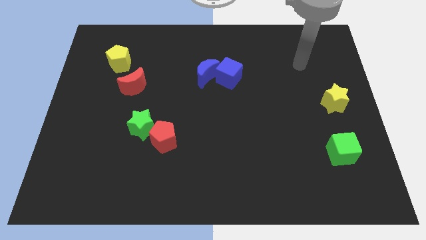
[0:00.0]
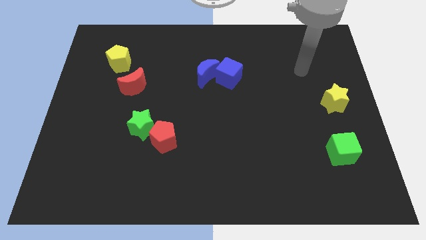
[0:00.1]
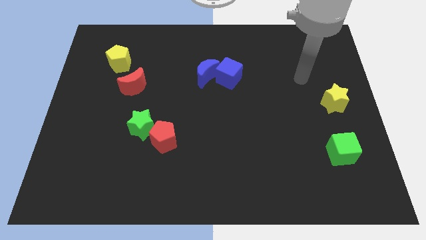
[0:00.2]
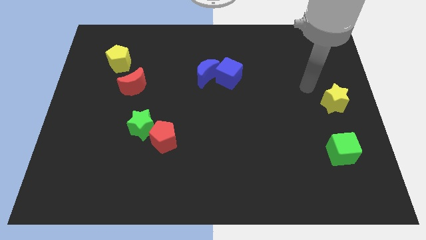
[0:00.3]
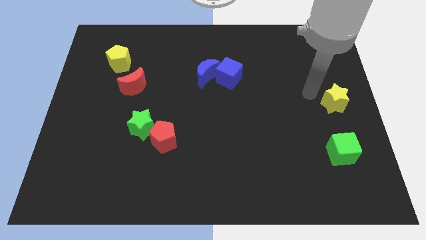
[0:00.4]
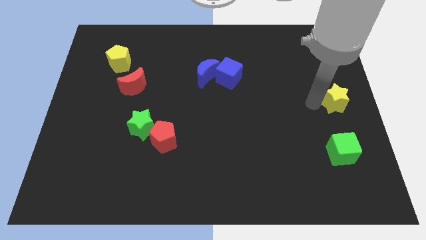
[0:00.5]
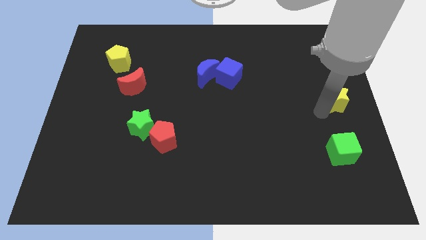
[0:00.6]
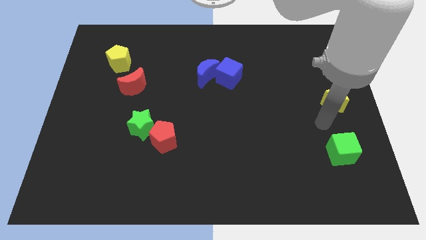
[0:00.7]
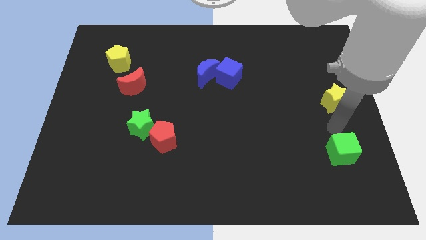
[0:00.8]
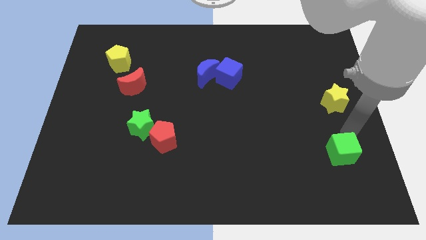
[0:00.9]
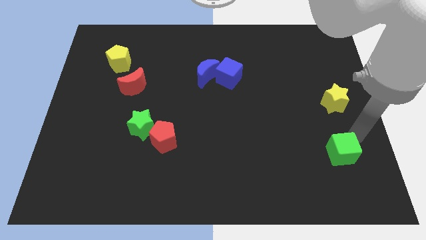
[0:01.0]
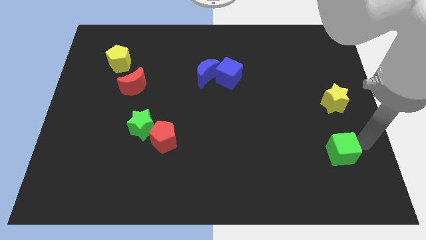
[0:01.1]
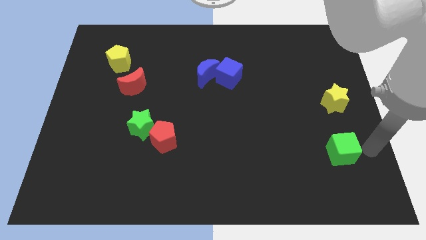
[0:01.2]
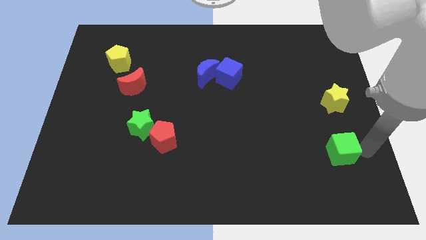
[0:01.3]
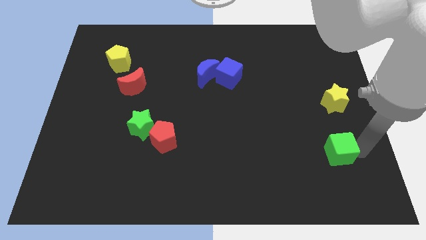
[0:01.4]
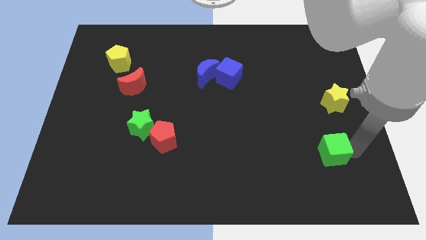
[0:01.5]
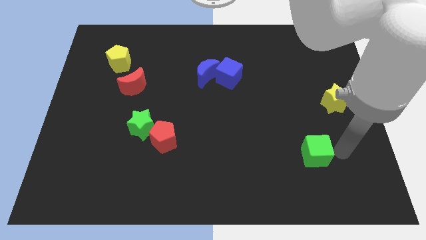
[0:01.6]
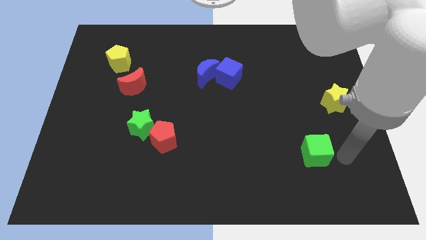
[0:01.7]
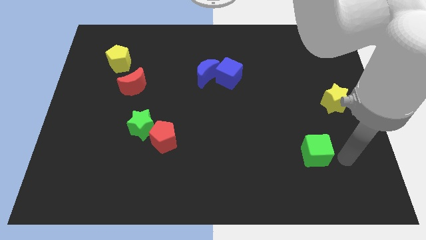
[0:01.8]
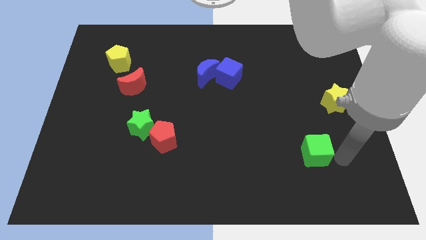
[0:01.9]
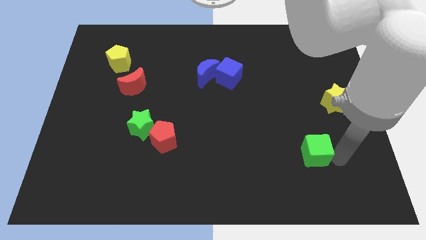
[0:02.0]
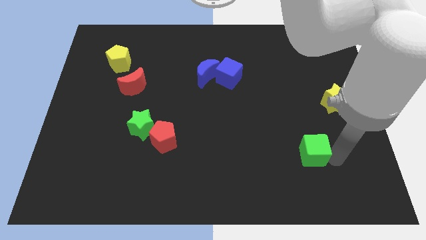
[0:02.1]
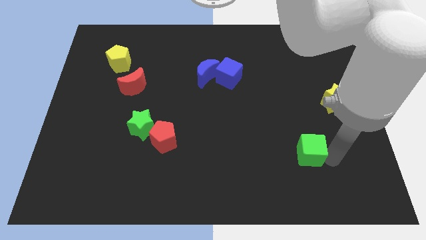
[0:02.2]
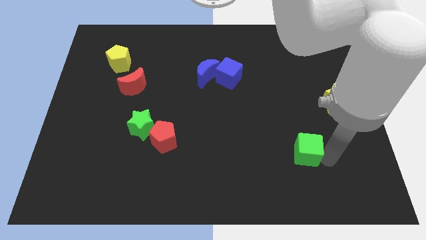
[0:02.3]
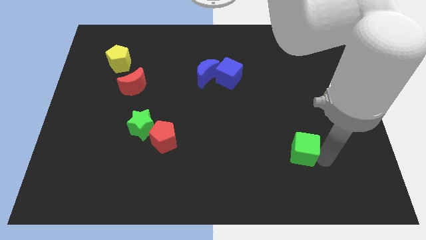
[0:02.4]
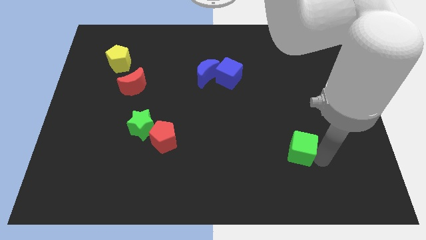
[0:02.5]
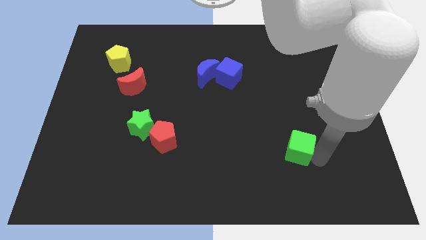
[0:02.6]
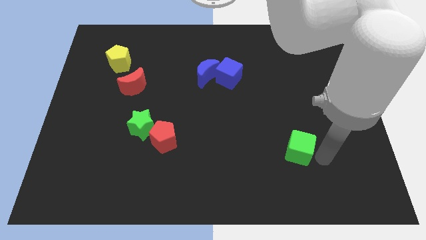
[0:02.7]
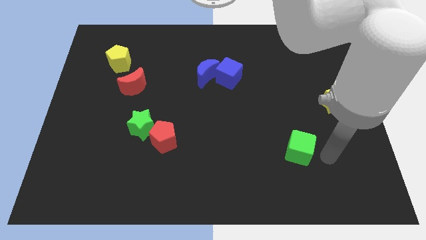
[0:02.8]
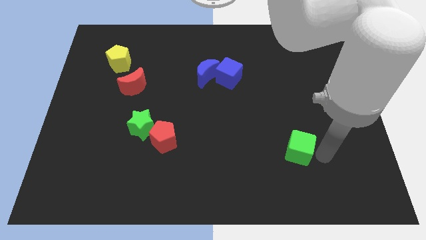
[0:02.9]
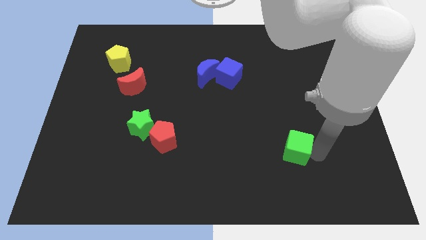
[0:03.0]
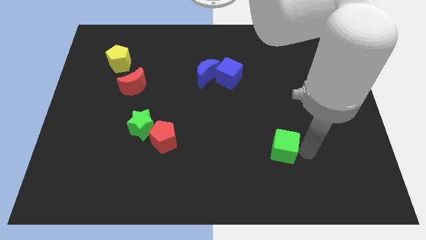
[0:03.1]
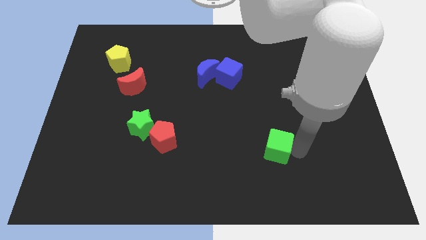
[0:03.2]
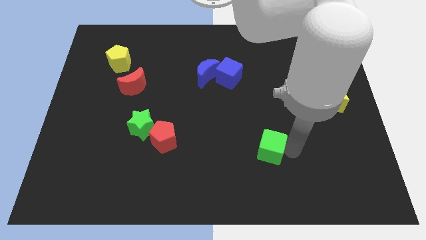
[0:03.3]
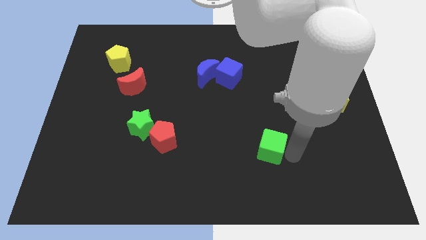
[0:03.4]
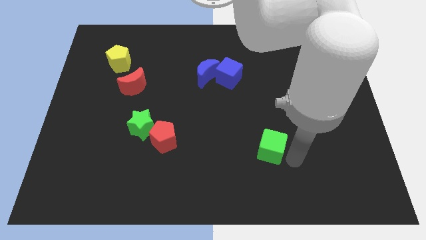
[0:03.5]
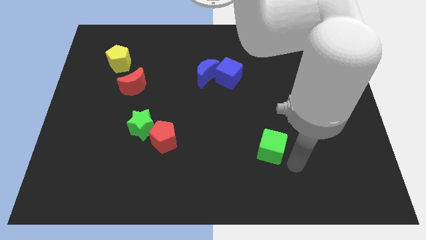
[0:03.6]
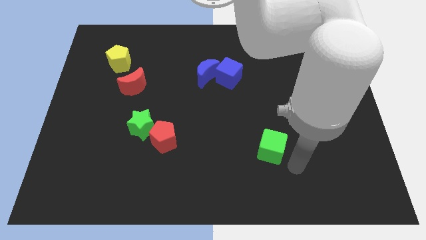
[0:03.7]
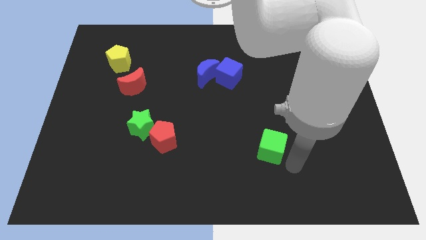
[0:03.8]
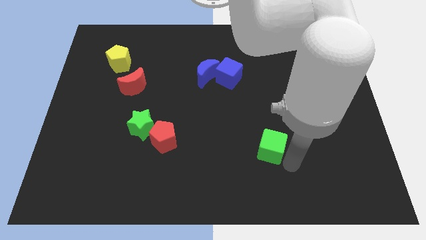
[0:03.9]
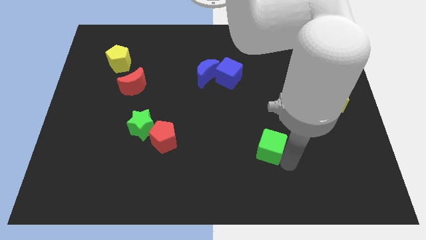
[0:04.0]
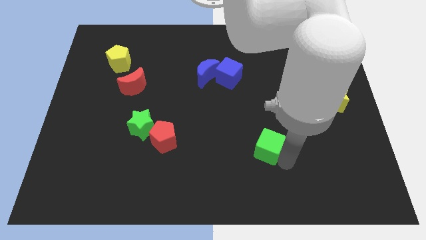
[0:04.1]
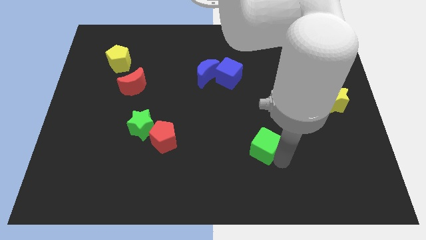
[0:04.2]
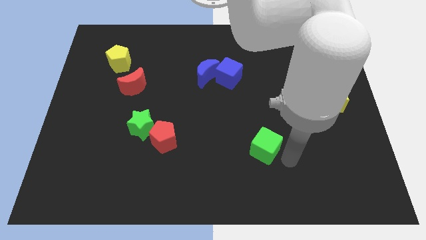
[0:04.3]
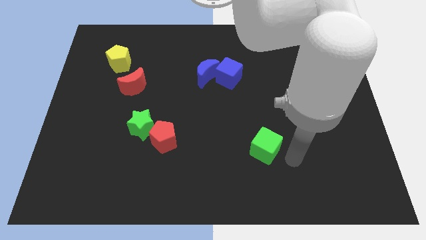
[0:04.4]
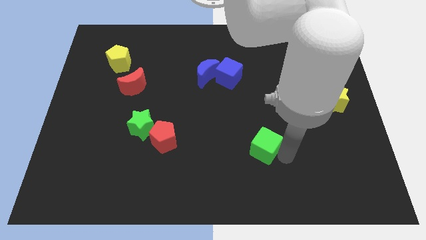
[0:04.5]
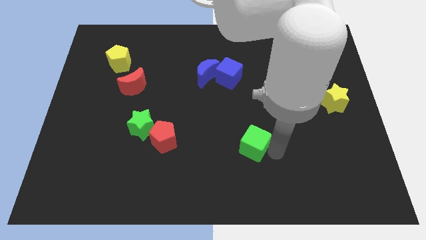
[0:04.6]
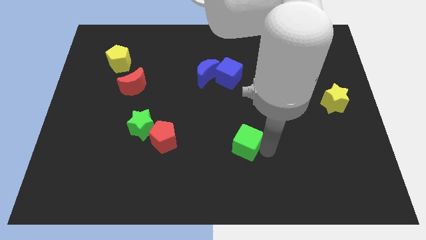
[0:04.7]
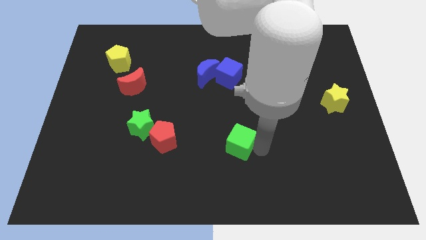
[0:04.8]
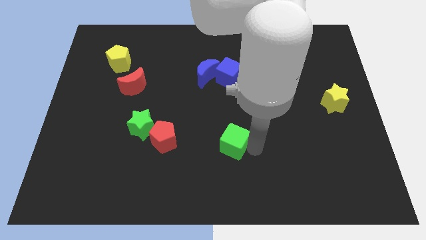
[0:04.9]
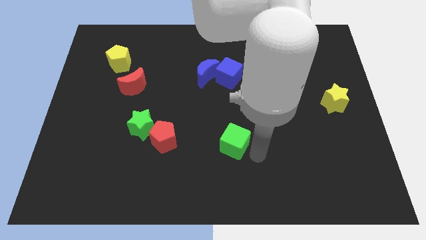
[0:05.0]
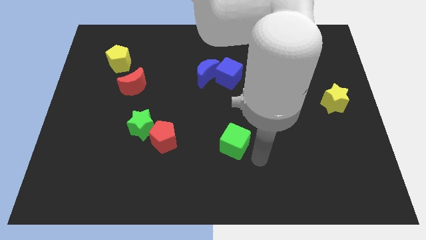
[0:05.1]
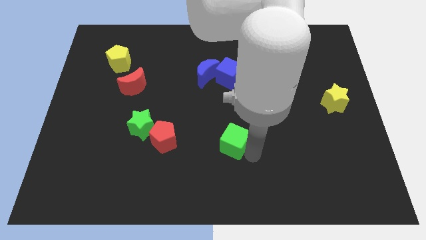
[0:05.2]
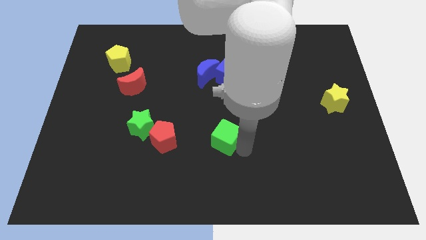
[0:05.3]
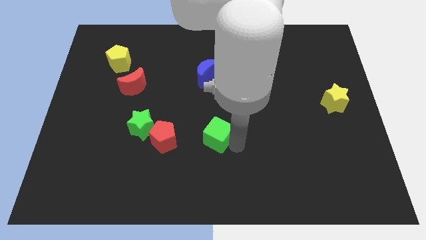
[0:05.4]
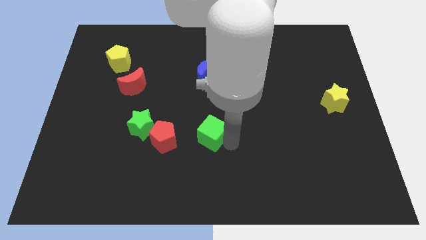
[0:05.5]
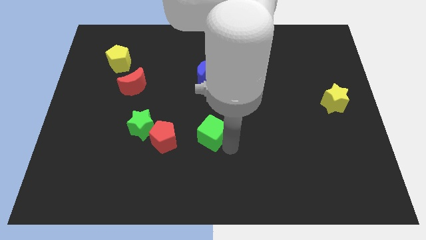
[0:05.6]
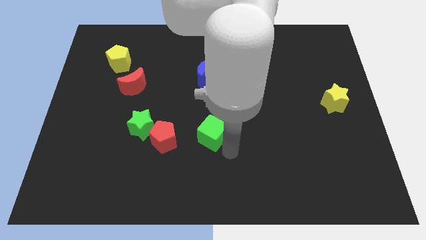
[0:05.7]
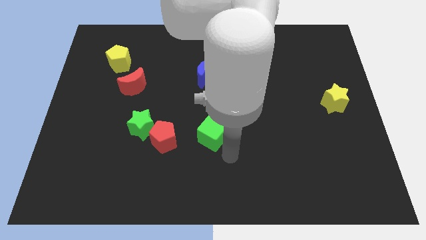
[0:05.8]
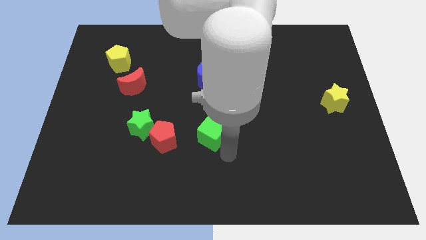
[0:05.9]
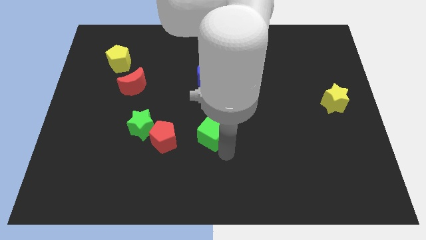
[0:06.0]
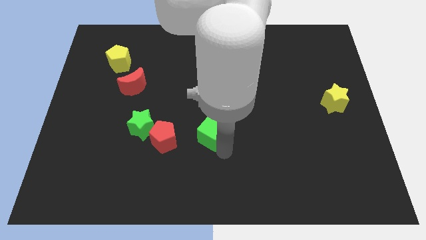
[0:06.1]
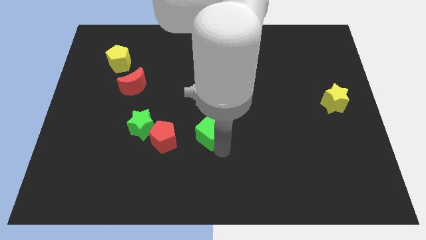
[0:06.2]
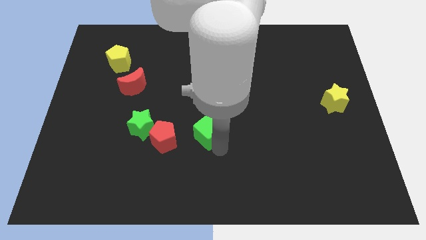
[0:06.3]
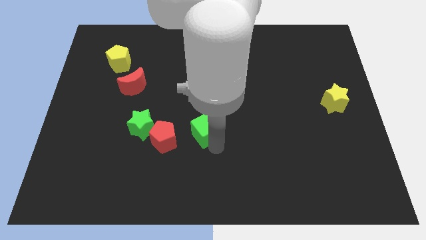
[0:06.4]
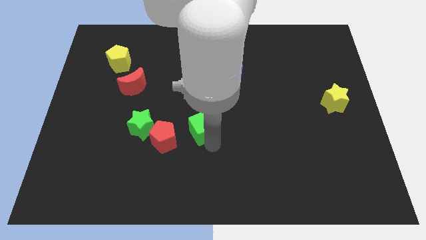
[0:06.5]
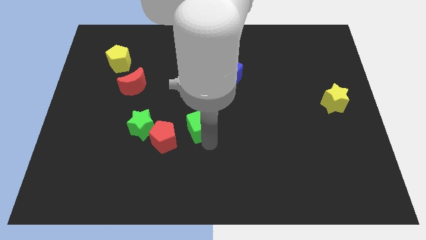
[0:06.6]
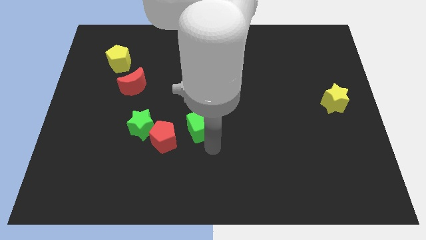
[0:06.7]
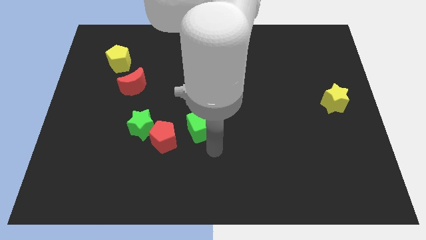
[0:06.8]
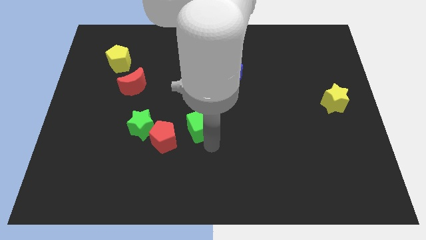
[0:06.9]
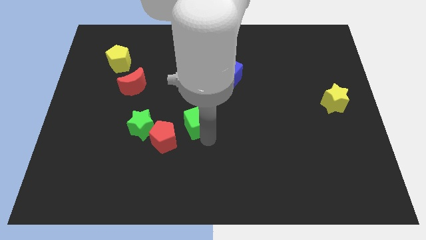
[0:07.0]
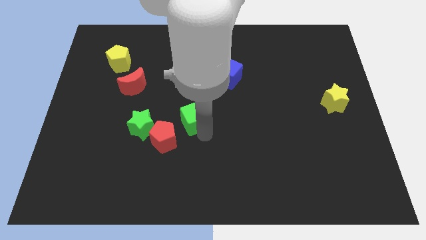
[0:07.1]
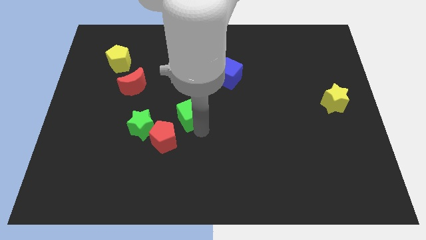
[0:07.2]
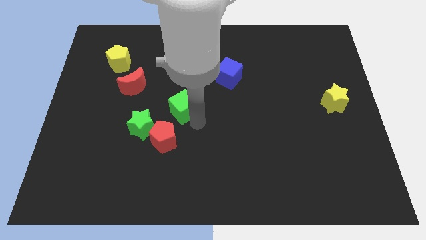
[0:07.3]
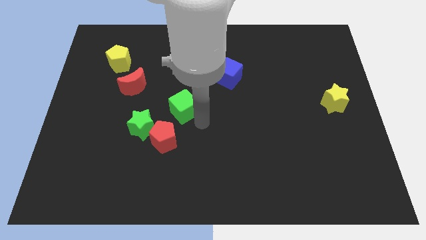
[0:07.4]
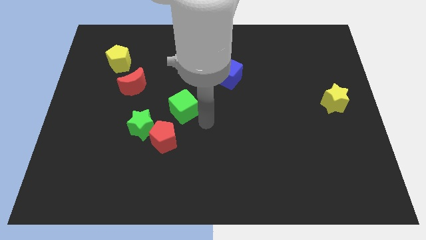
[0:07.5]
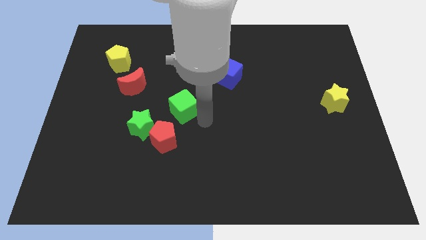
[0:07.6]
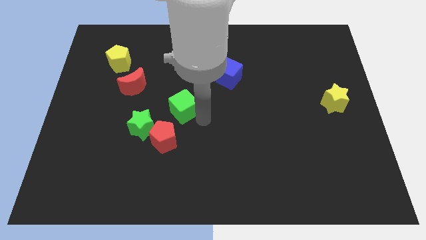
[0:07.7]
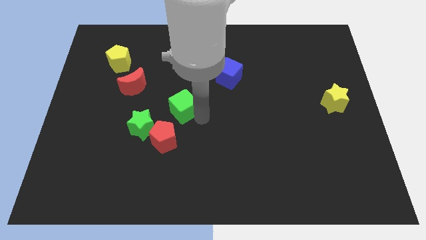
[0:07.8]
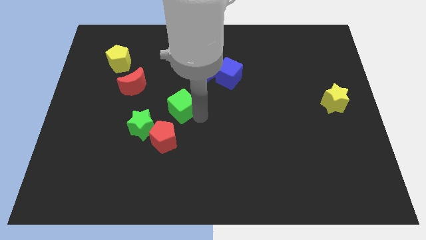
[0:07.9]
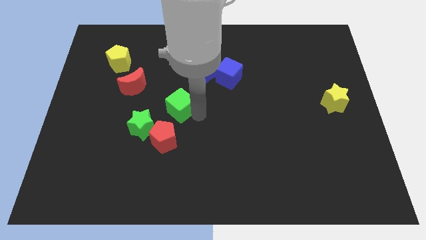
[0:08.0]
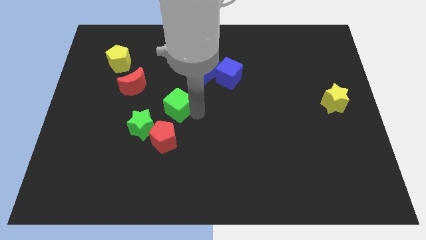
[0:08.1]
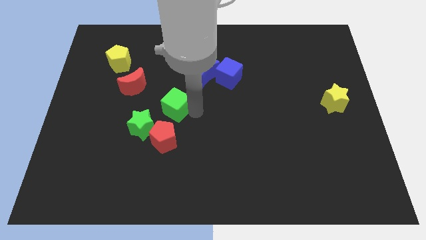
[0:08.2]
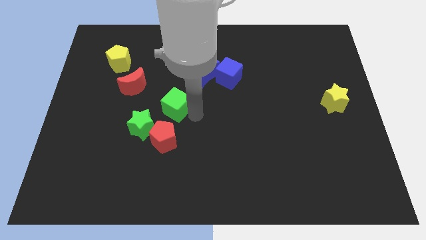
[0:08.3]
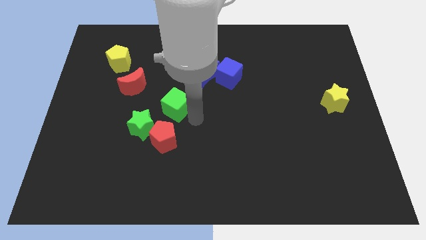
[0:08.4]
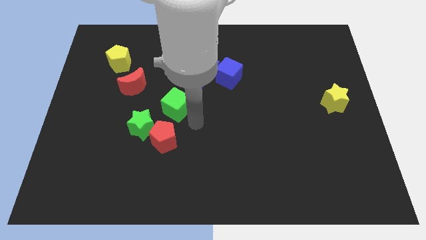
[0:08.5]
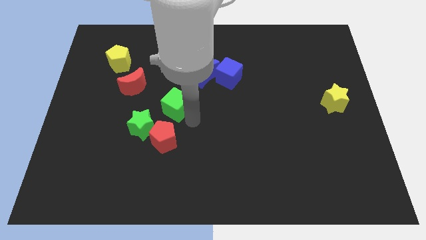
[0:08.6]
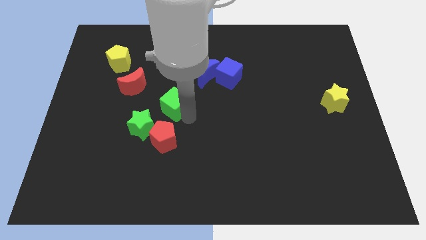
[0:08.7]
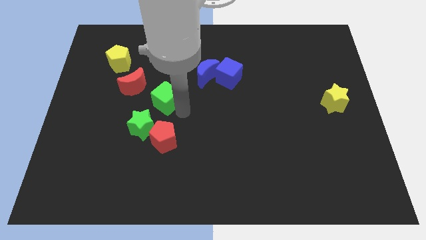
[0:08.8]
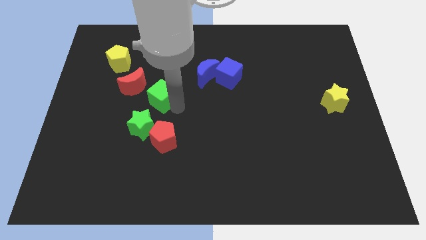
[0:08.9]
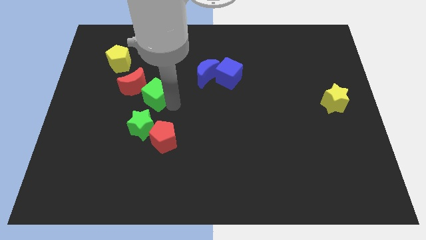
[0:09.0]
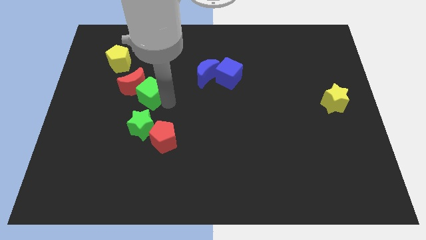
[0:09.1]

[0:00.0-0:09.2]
move the green cube towards the red moon
